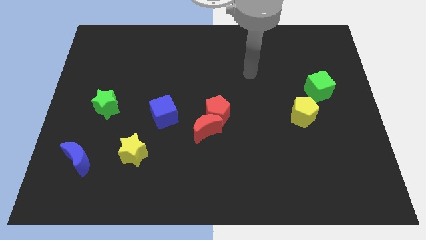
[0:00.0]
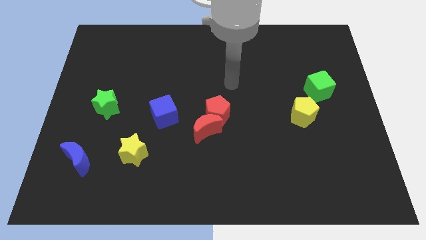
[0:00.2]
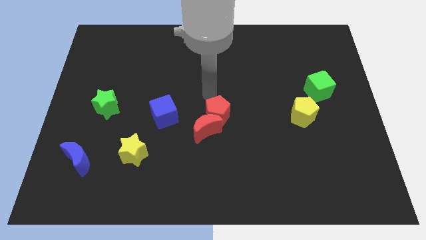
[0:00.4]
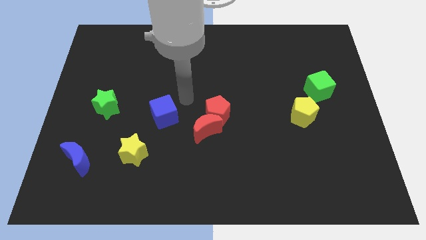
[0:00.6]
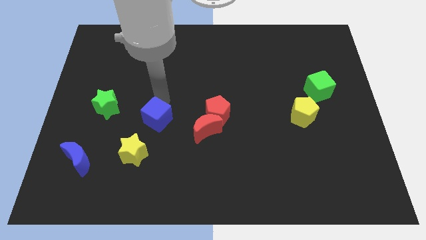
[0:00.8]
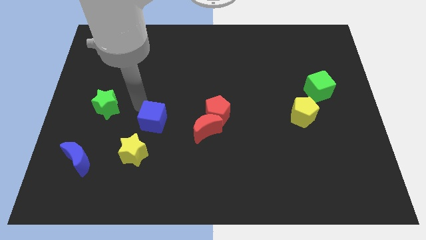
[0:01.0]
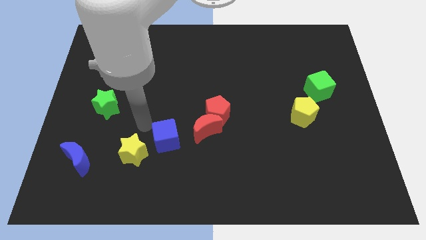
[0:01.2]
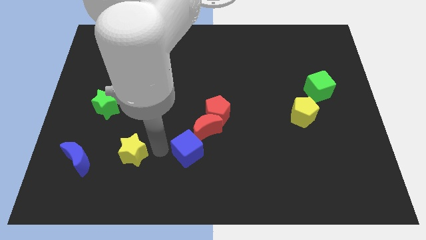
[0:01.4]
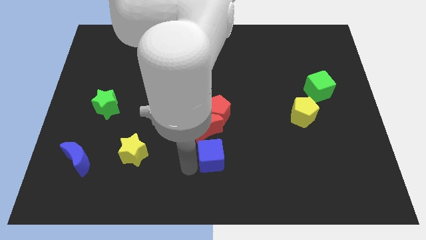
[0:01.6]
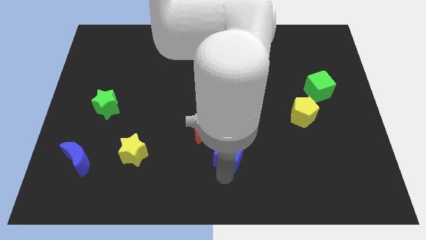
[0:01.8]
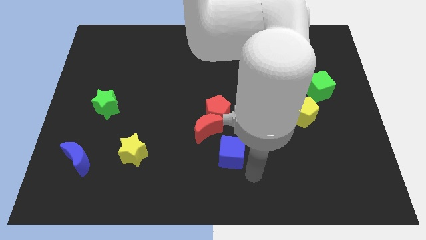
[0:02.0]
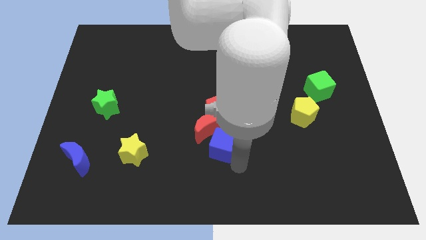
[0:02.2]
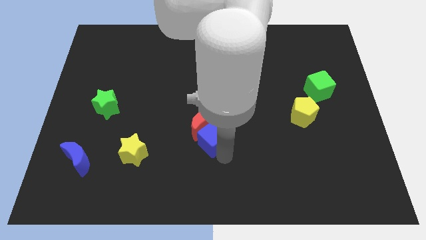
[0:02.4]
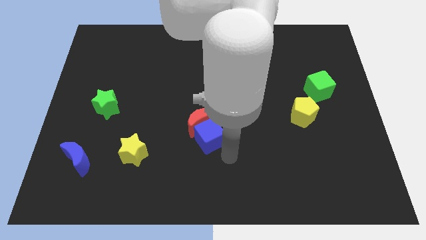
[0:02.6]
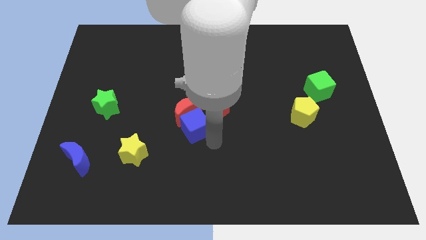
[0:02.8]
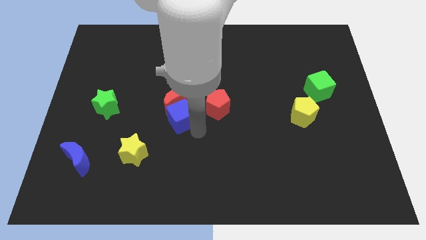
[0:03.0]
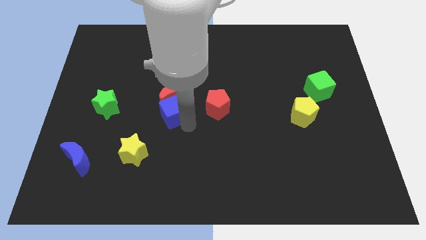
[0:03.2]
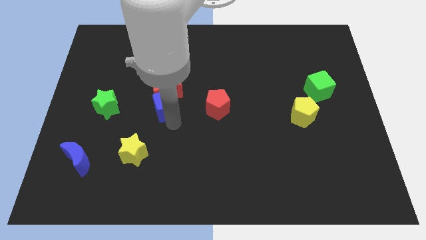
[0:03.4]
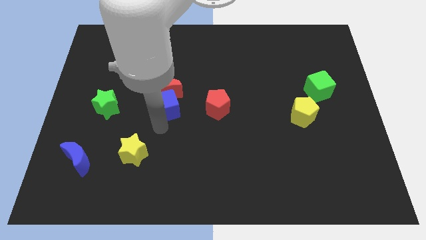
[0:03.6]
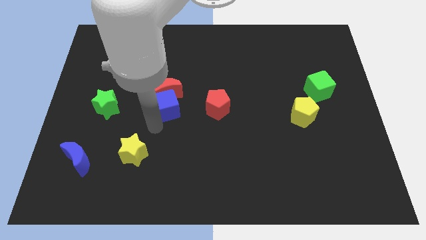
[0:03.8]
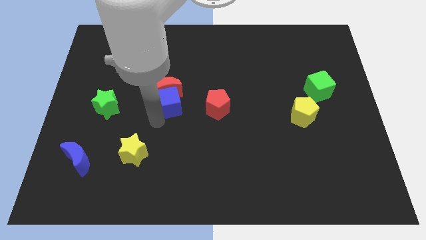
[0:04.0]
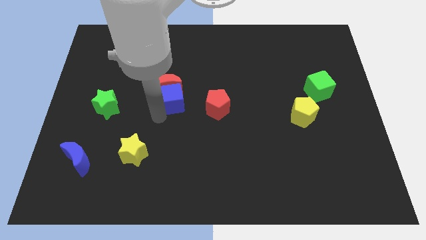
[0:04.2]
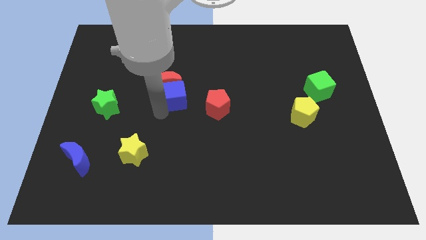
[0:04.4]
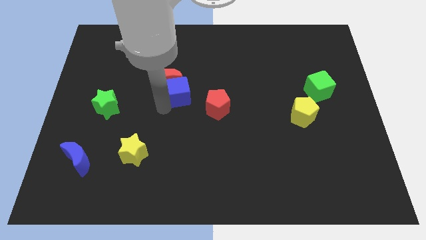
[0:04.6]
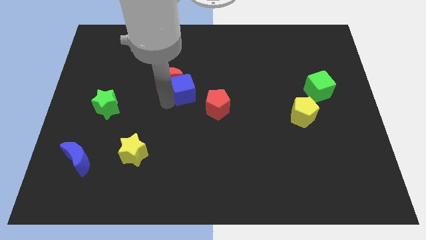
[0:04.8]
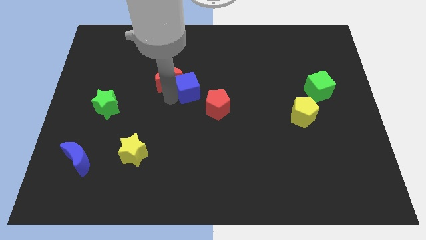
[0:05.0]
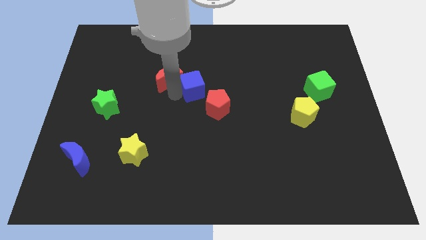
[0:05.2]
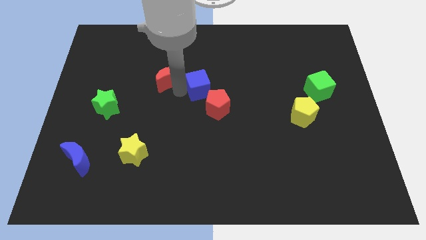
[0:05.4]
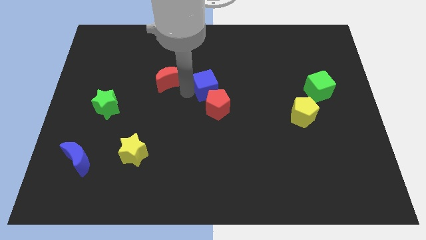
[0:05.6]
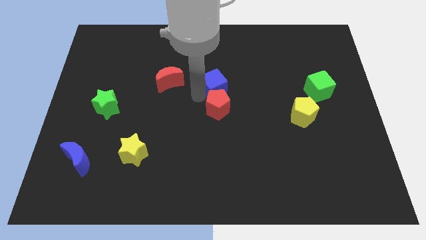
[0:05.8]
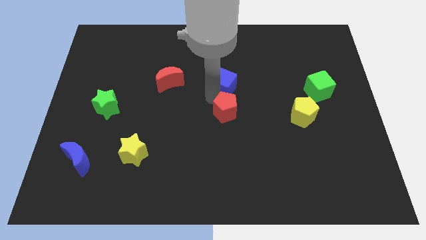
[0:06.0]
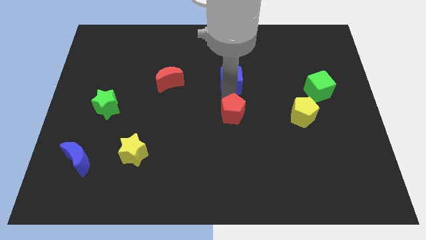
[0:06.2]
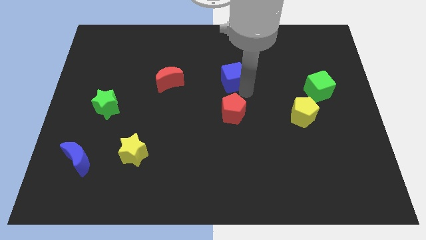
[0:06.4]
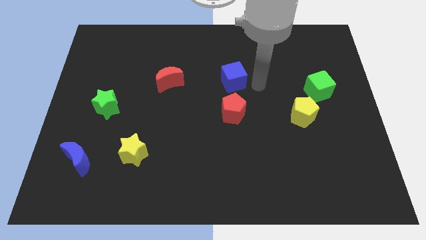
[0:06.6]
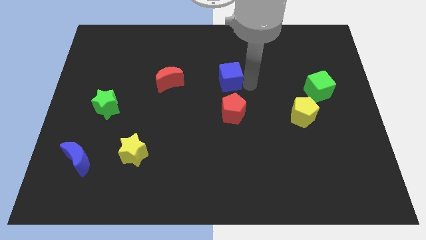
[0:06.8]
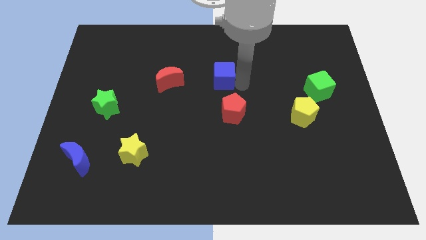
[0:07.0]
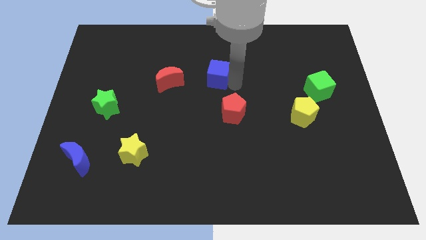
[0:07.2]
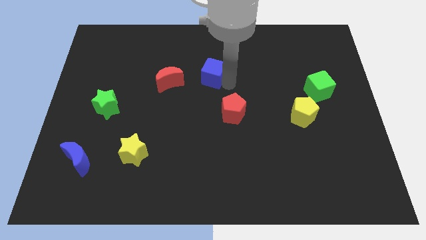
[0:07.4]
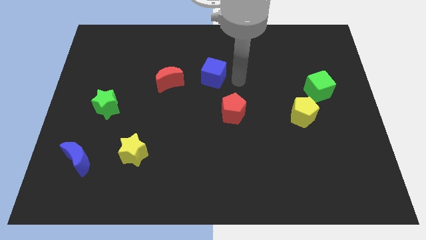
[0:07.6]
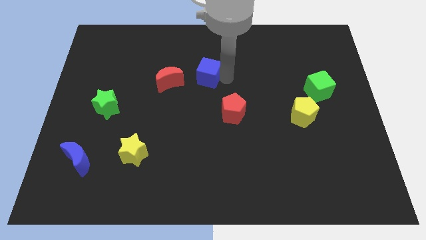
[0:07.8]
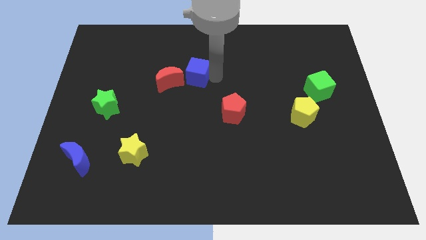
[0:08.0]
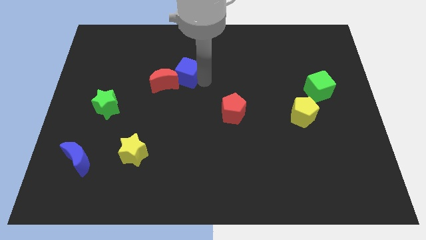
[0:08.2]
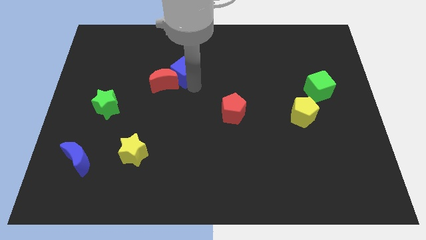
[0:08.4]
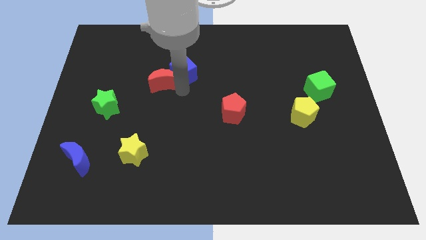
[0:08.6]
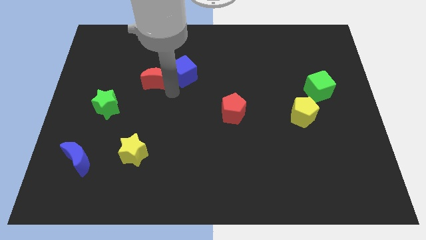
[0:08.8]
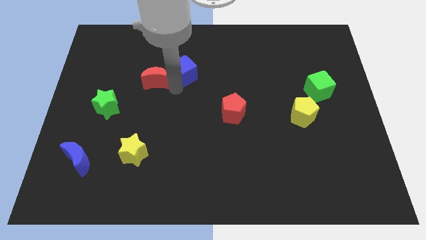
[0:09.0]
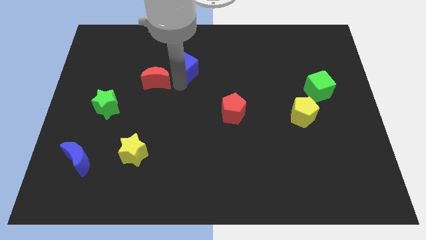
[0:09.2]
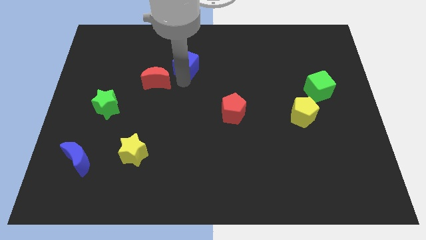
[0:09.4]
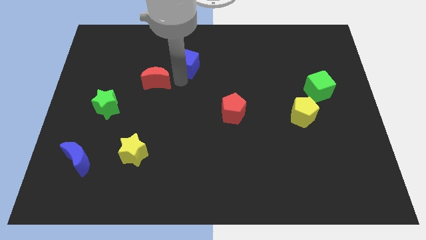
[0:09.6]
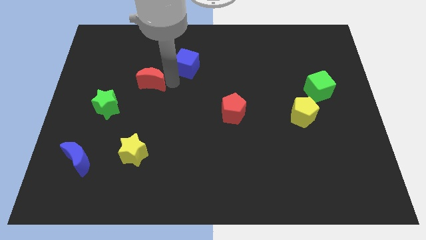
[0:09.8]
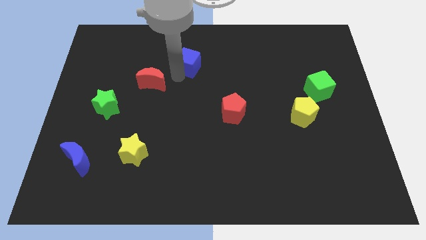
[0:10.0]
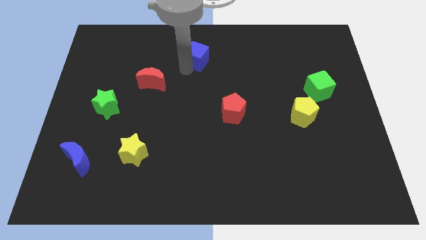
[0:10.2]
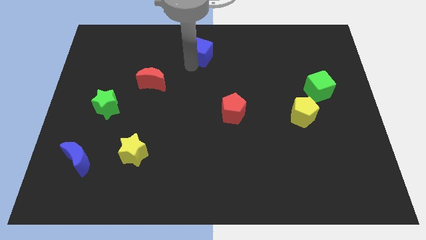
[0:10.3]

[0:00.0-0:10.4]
slide the blue cube to the towards your base

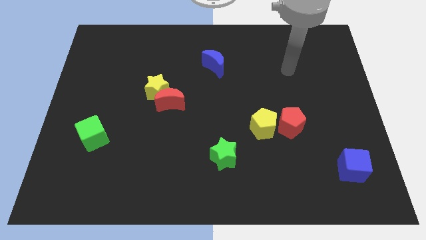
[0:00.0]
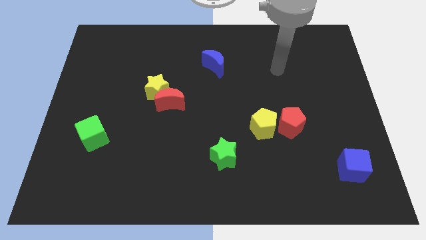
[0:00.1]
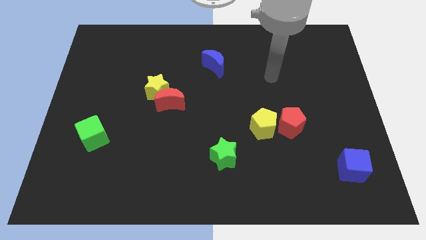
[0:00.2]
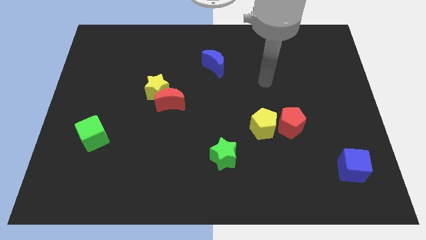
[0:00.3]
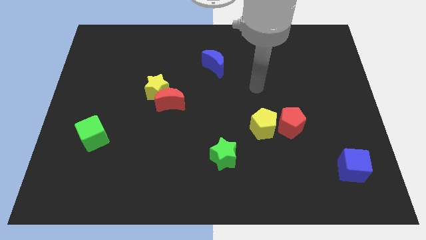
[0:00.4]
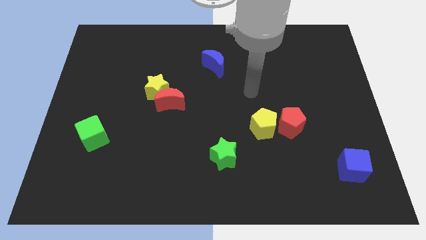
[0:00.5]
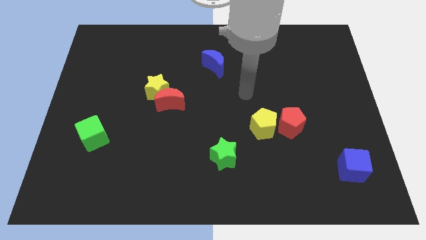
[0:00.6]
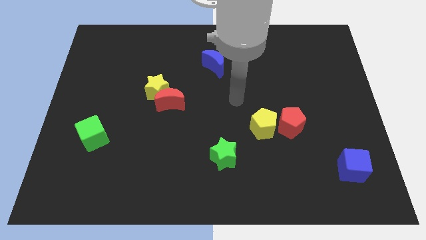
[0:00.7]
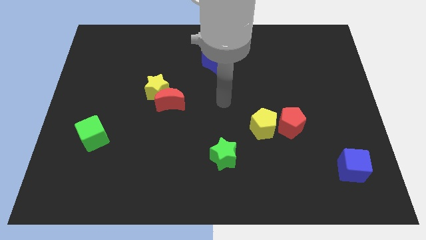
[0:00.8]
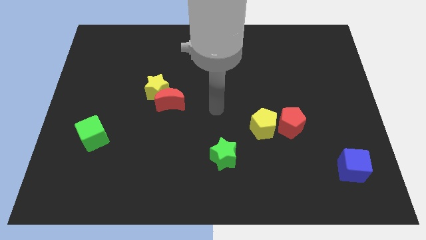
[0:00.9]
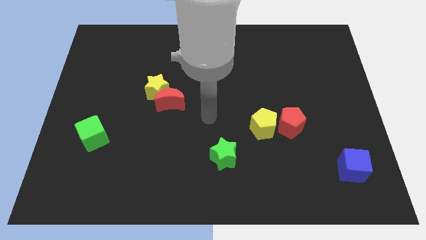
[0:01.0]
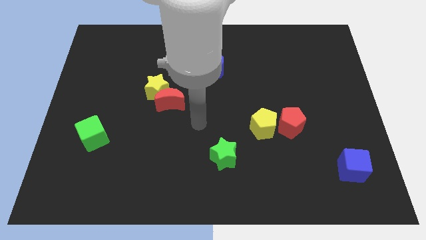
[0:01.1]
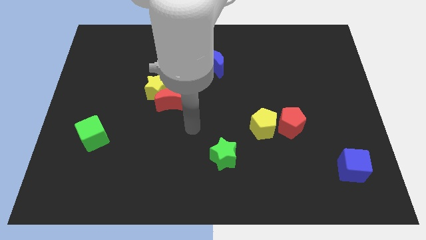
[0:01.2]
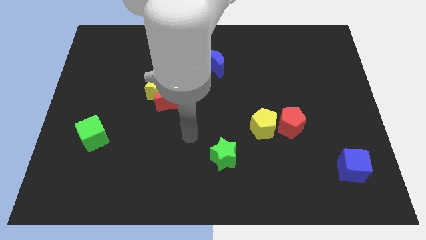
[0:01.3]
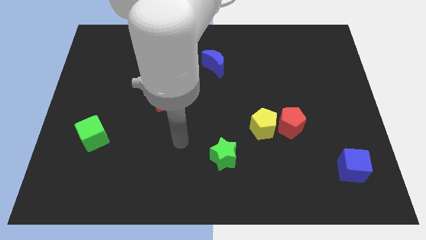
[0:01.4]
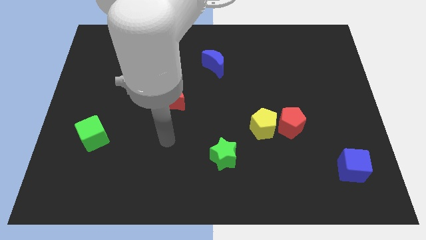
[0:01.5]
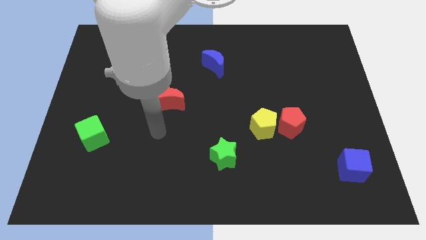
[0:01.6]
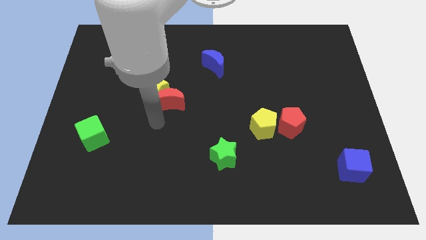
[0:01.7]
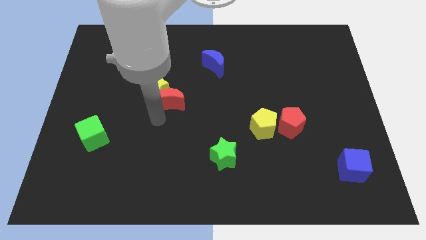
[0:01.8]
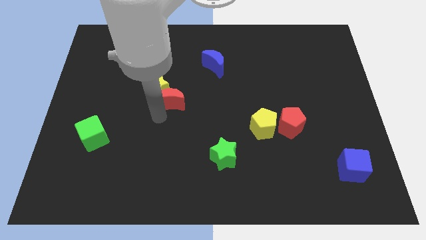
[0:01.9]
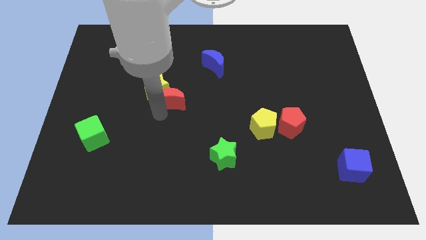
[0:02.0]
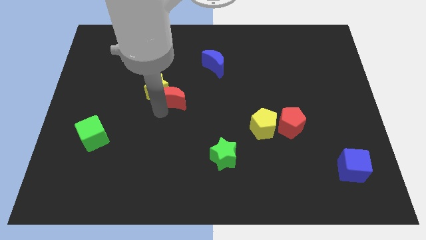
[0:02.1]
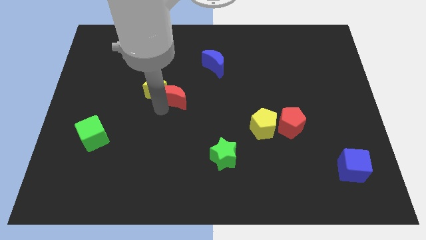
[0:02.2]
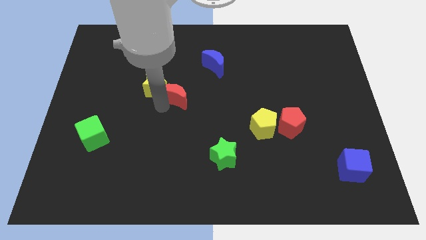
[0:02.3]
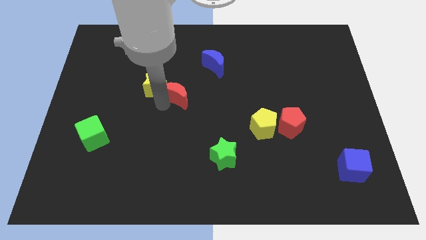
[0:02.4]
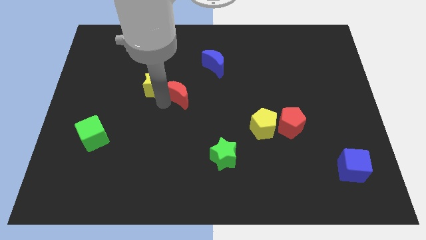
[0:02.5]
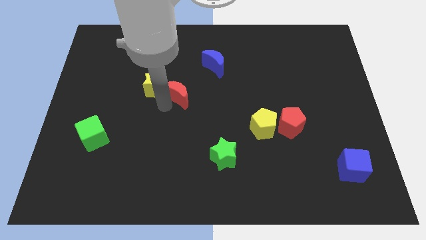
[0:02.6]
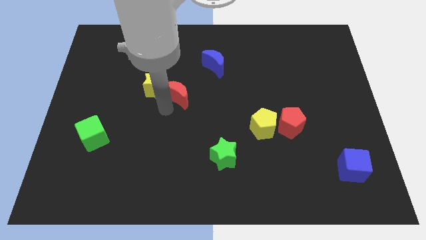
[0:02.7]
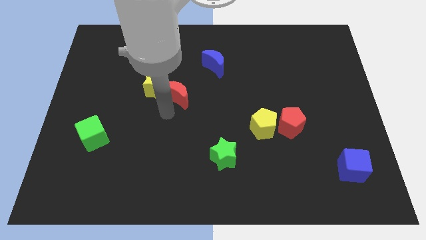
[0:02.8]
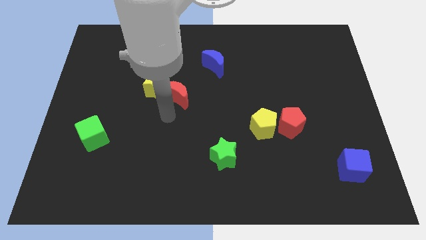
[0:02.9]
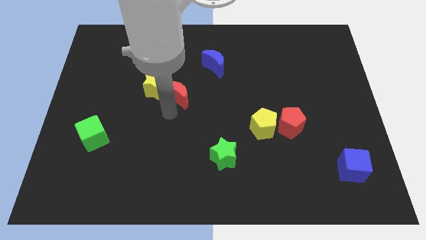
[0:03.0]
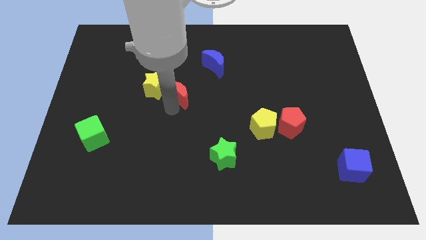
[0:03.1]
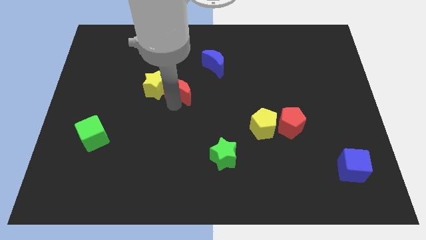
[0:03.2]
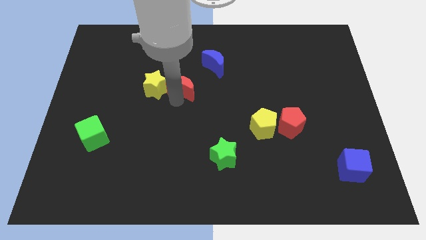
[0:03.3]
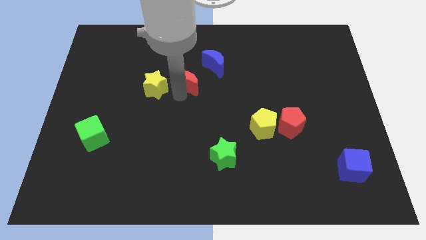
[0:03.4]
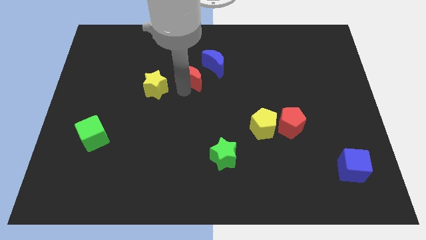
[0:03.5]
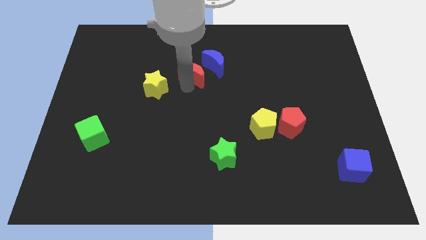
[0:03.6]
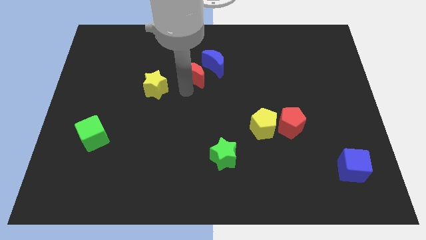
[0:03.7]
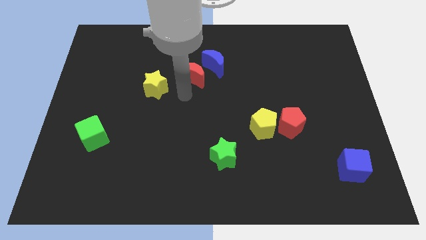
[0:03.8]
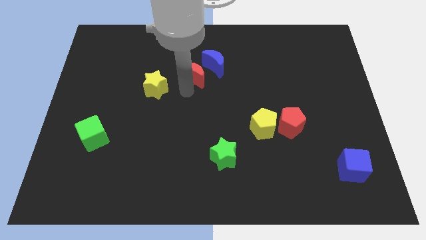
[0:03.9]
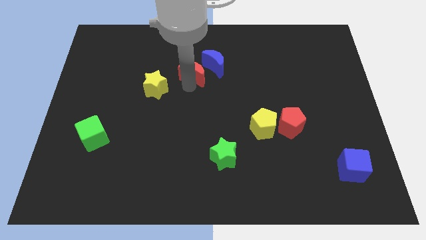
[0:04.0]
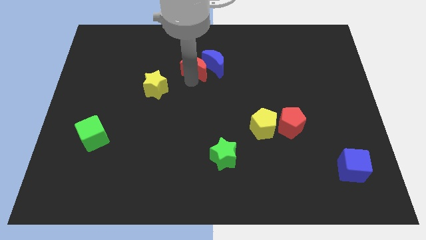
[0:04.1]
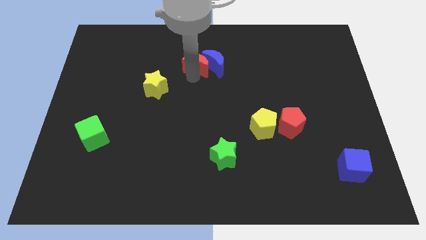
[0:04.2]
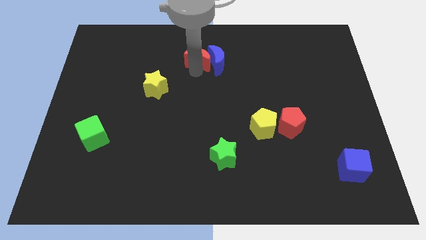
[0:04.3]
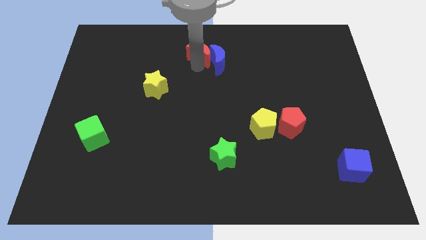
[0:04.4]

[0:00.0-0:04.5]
push the red moon to the towards your base
